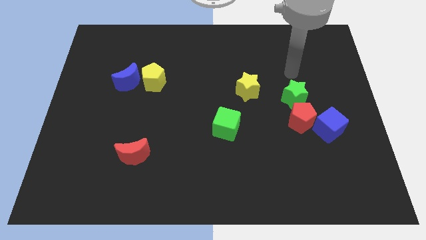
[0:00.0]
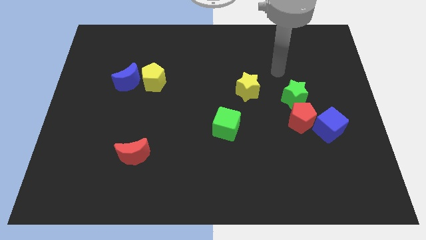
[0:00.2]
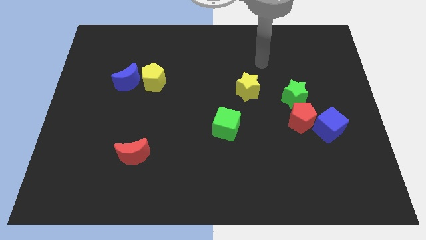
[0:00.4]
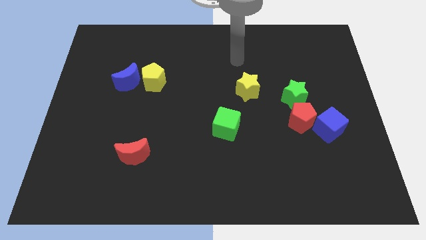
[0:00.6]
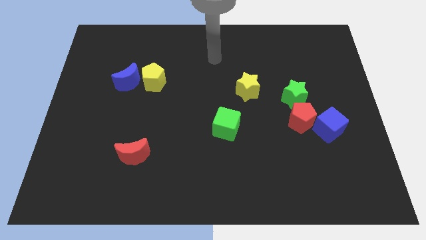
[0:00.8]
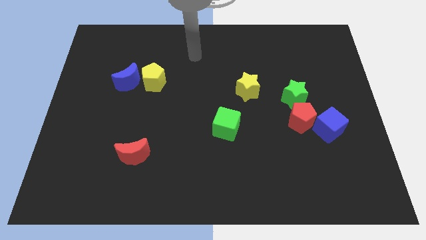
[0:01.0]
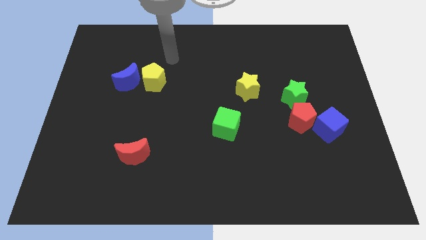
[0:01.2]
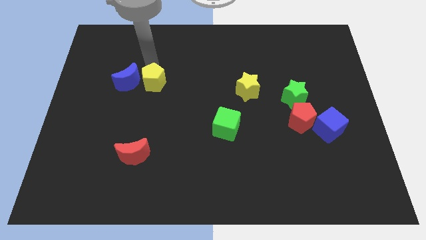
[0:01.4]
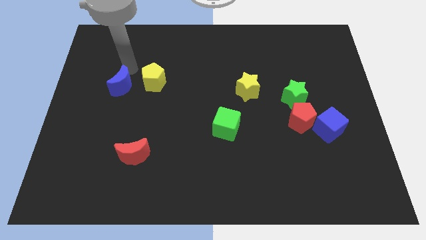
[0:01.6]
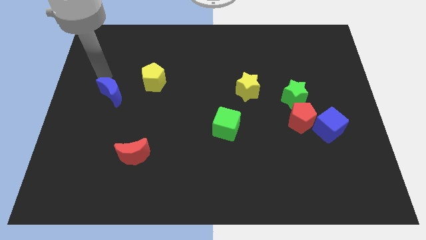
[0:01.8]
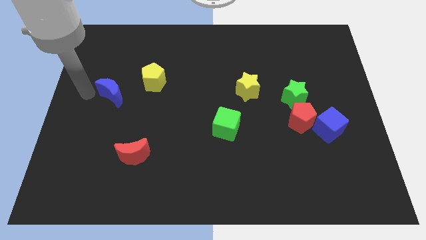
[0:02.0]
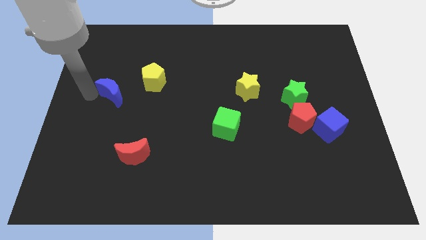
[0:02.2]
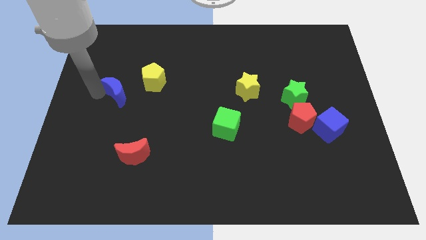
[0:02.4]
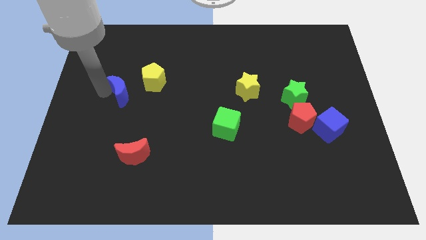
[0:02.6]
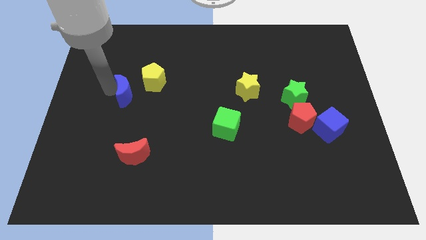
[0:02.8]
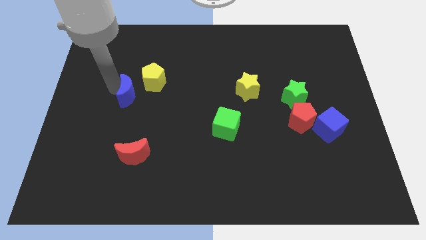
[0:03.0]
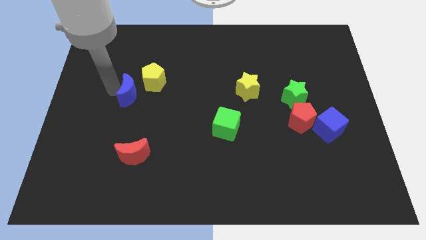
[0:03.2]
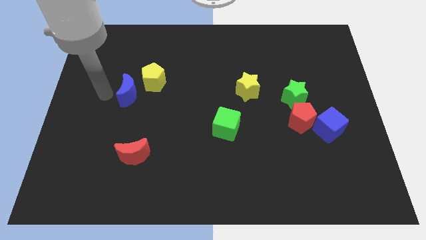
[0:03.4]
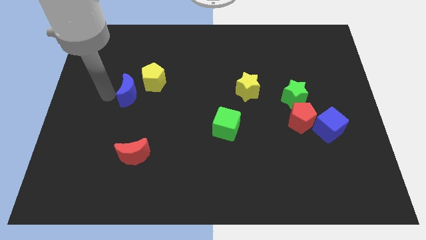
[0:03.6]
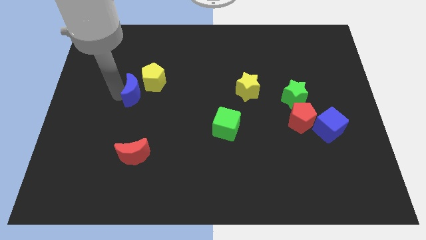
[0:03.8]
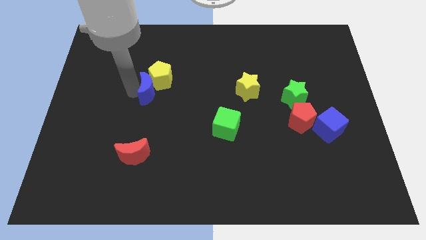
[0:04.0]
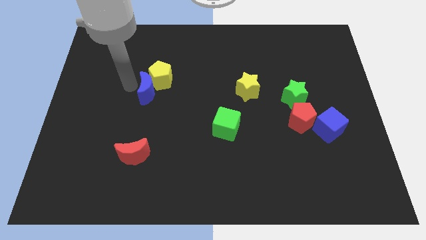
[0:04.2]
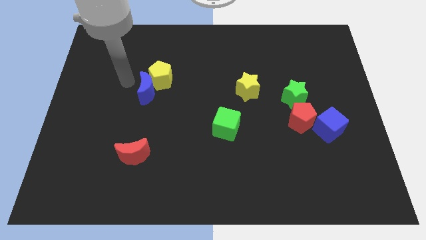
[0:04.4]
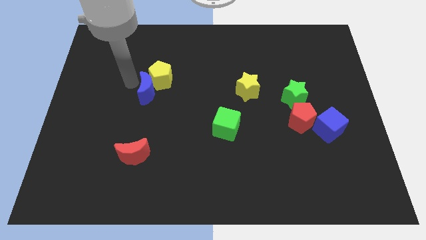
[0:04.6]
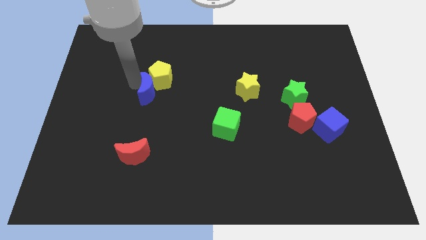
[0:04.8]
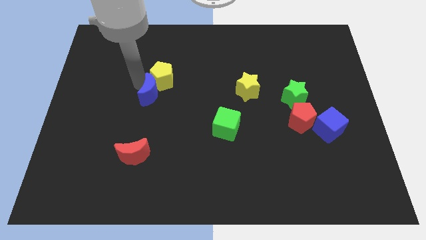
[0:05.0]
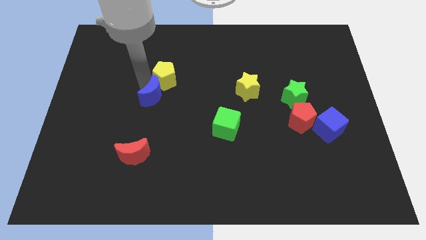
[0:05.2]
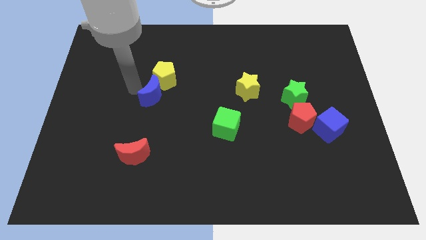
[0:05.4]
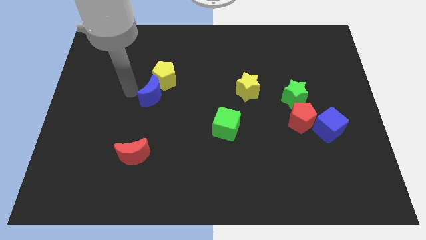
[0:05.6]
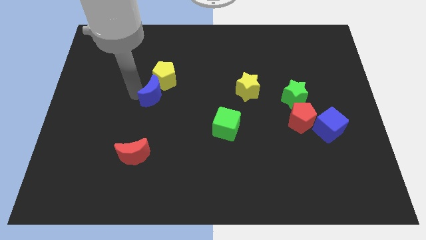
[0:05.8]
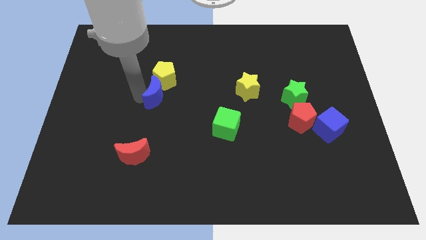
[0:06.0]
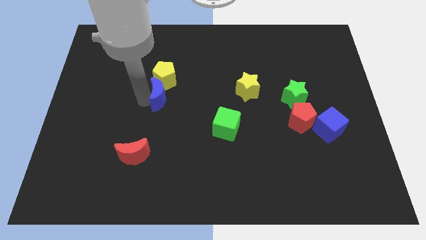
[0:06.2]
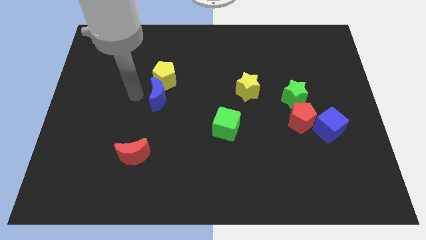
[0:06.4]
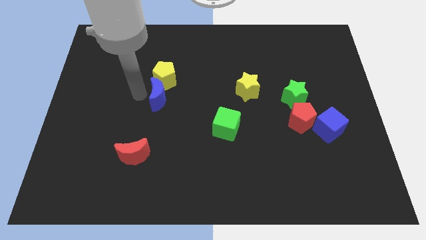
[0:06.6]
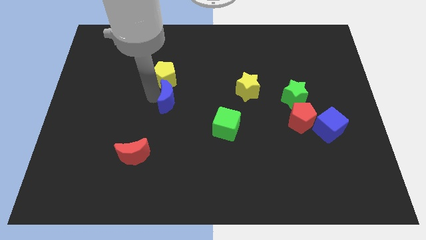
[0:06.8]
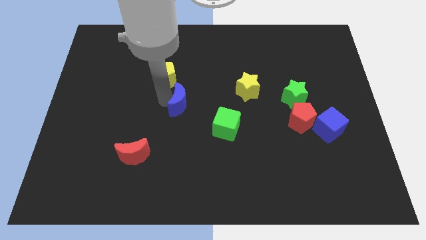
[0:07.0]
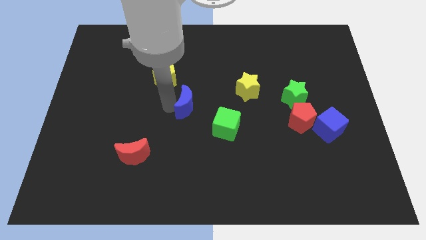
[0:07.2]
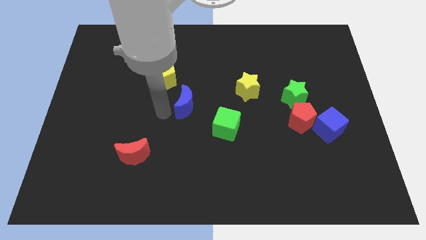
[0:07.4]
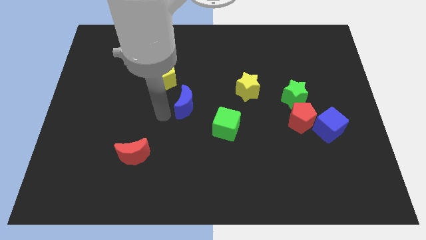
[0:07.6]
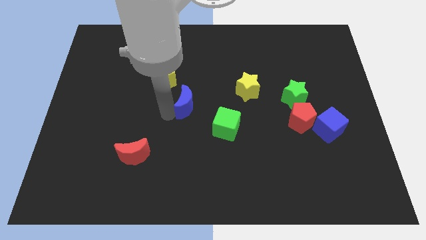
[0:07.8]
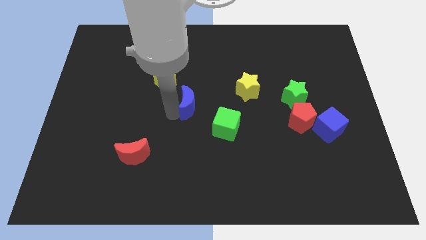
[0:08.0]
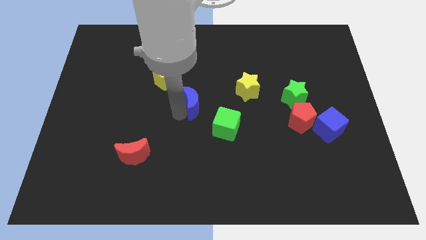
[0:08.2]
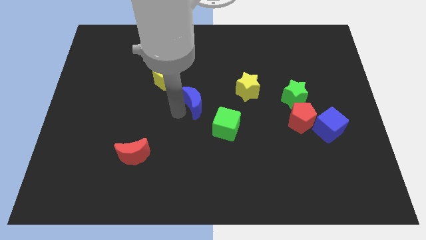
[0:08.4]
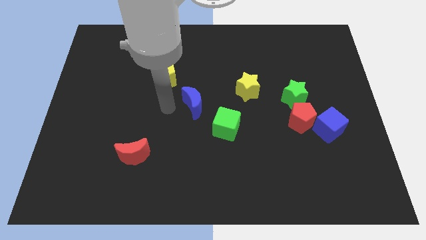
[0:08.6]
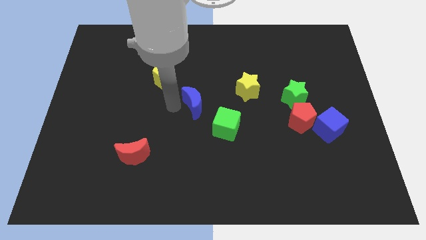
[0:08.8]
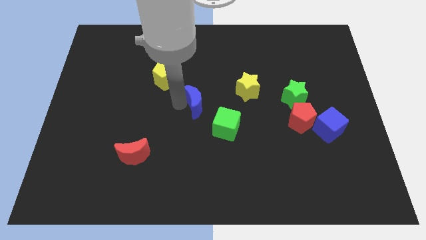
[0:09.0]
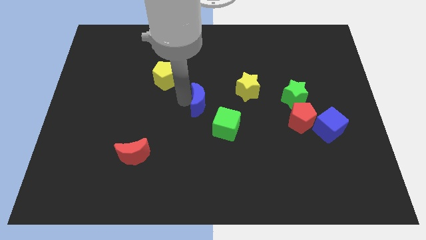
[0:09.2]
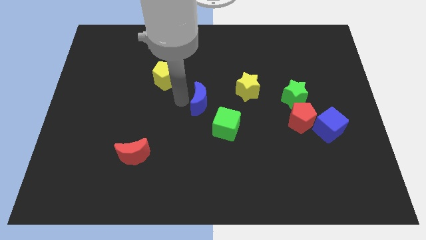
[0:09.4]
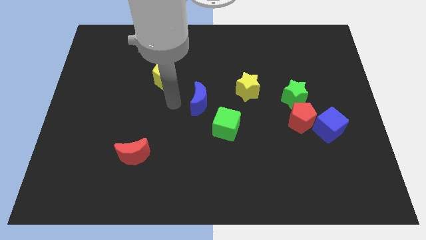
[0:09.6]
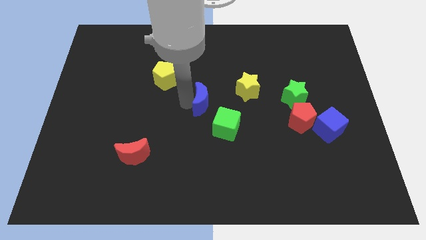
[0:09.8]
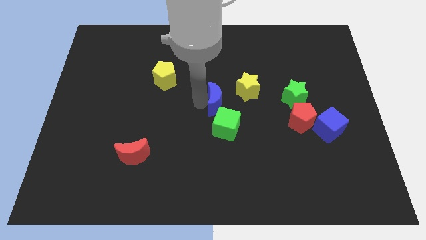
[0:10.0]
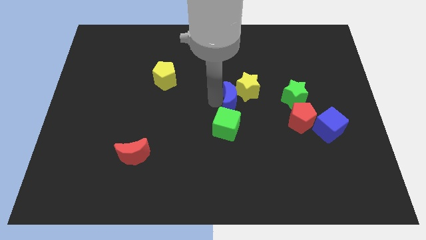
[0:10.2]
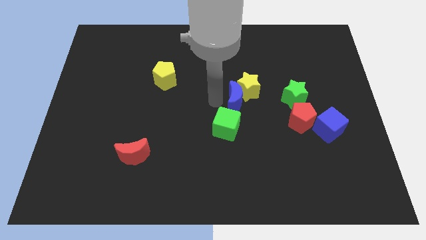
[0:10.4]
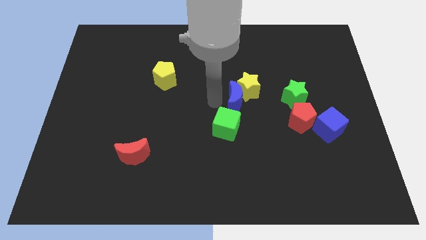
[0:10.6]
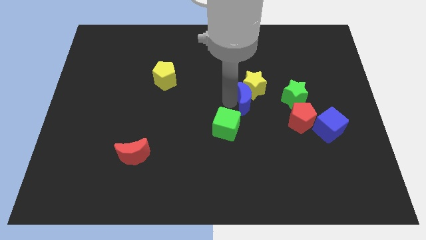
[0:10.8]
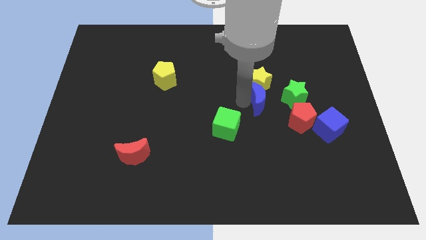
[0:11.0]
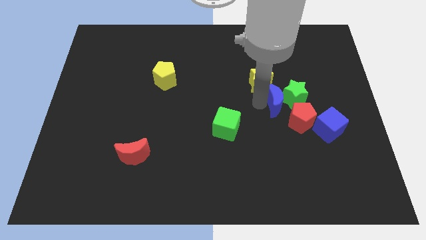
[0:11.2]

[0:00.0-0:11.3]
put the blue moon close to the green star

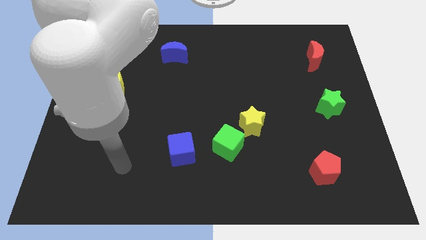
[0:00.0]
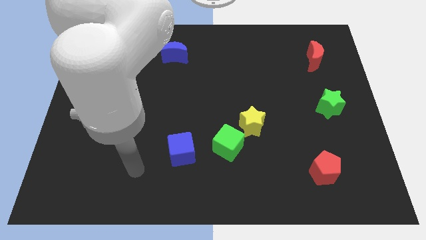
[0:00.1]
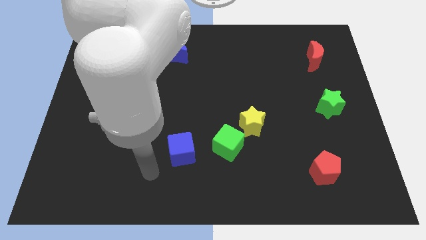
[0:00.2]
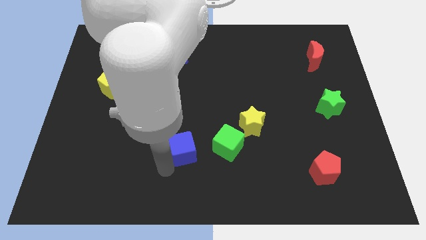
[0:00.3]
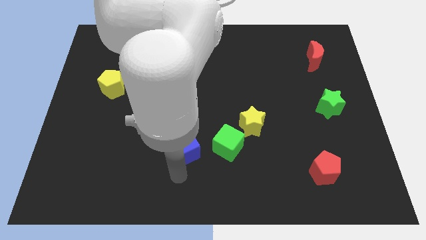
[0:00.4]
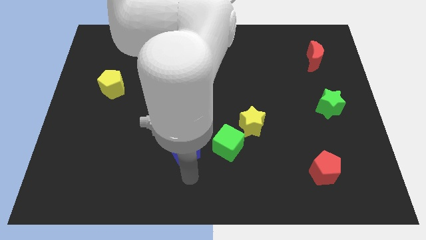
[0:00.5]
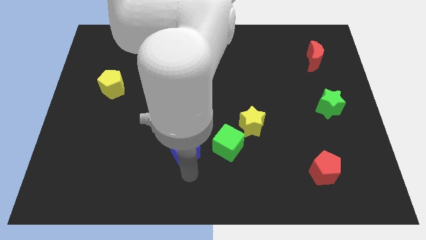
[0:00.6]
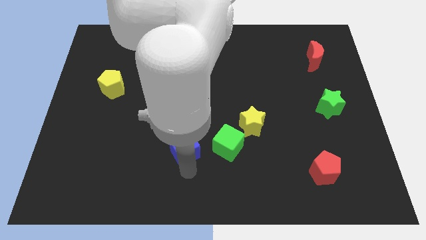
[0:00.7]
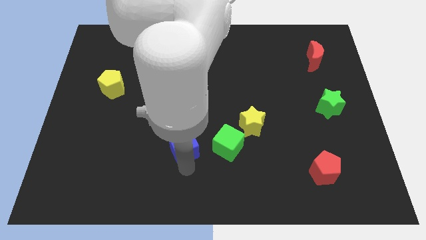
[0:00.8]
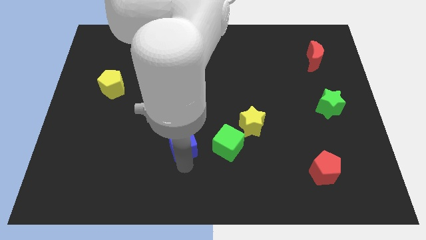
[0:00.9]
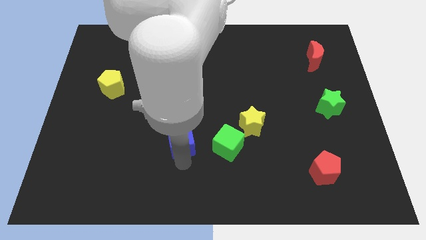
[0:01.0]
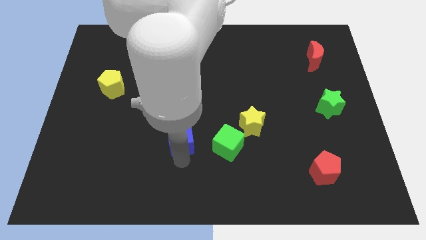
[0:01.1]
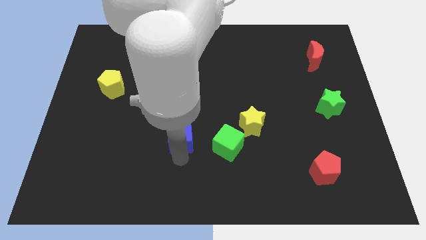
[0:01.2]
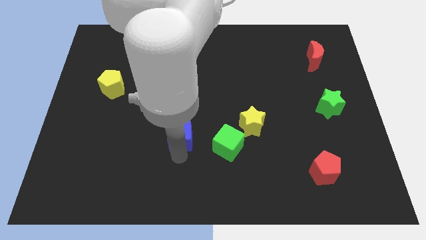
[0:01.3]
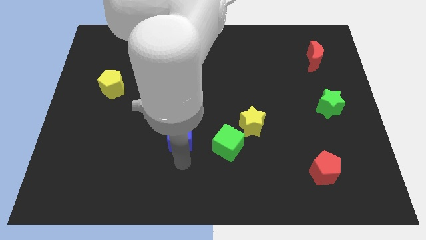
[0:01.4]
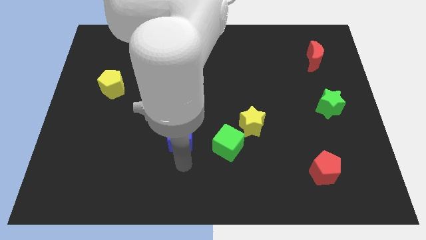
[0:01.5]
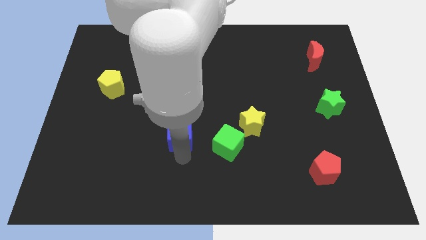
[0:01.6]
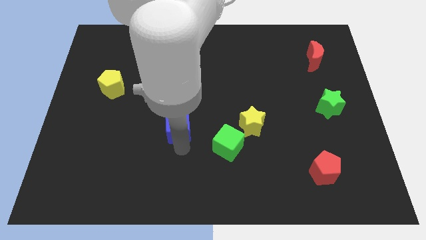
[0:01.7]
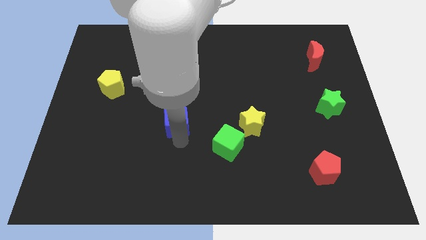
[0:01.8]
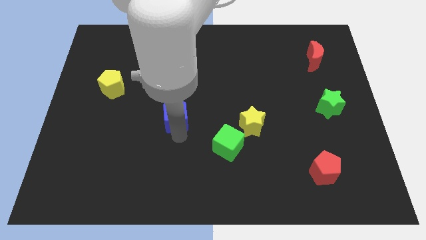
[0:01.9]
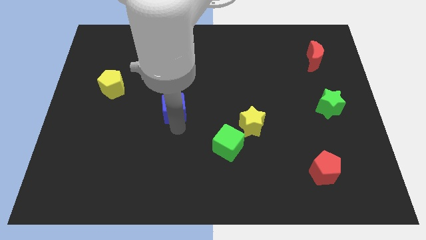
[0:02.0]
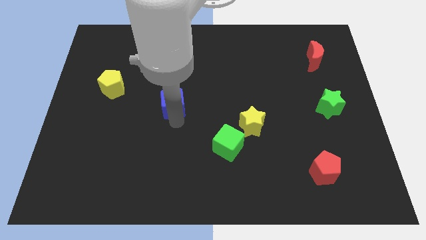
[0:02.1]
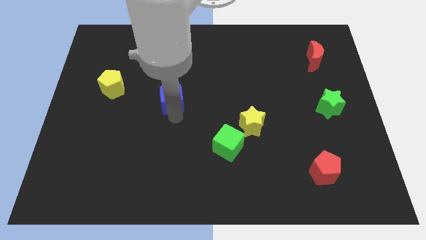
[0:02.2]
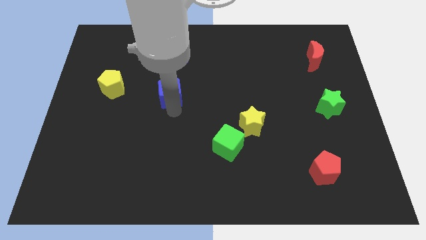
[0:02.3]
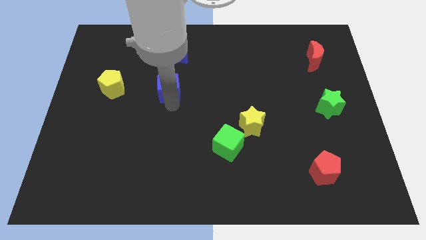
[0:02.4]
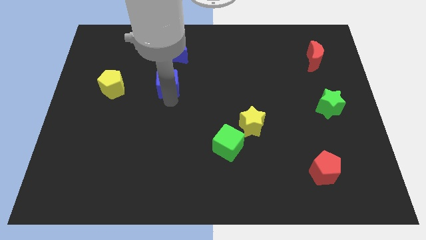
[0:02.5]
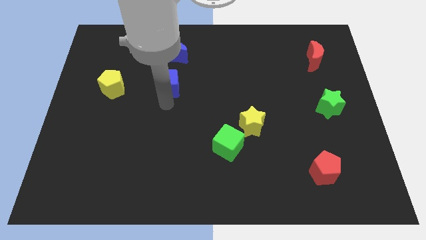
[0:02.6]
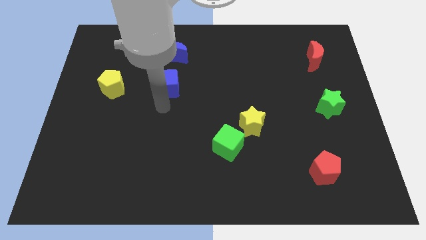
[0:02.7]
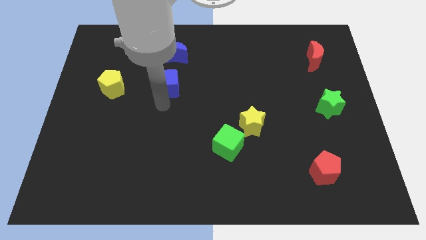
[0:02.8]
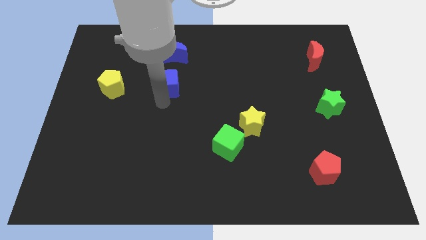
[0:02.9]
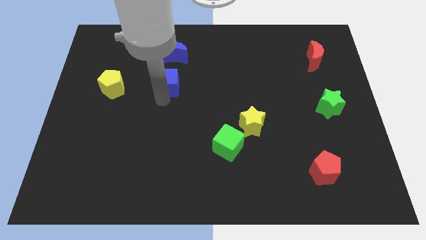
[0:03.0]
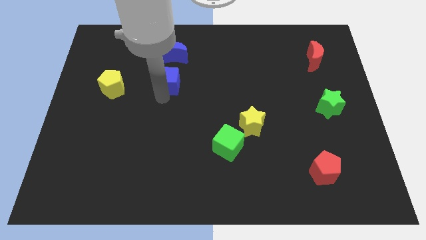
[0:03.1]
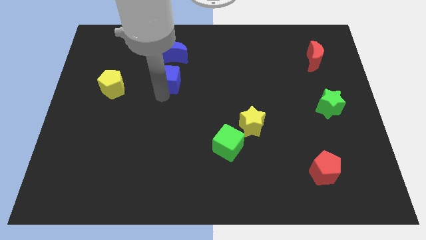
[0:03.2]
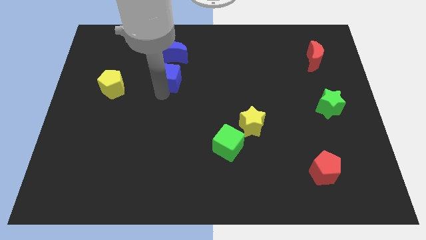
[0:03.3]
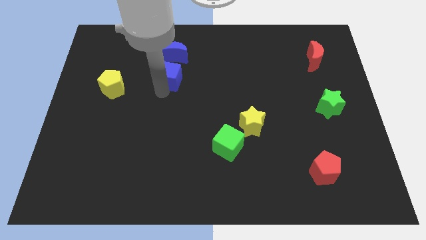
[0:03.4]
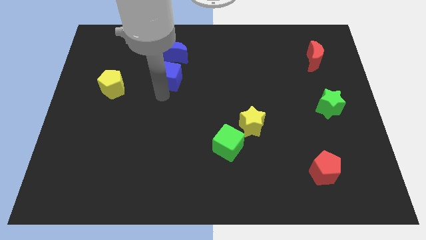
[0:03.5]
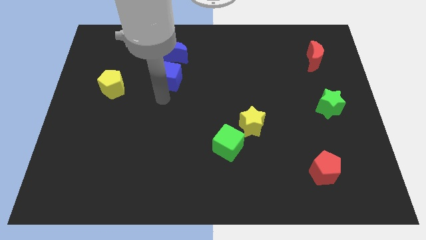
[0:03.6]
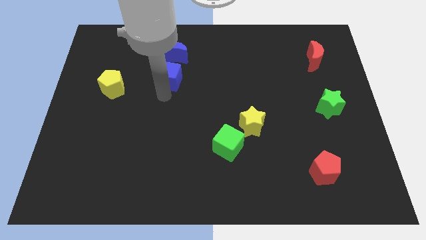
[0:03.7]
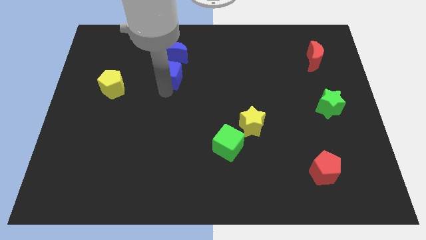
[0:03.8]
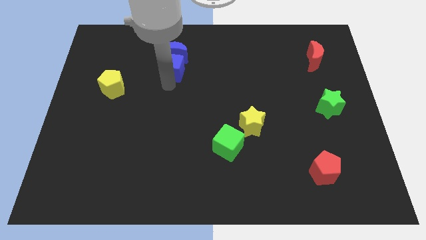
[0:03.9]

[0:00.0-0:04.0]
push the blue cube to the blue moon
